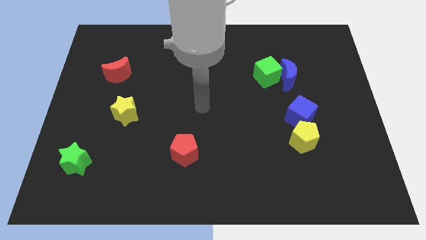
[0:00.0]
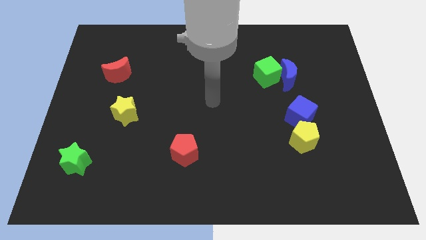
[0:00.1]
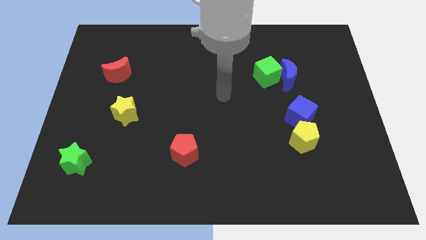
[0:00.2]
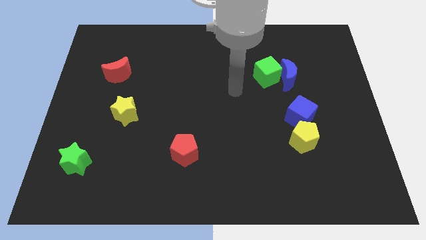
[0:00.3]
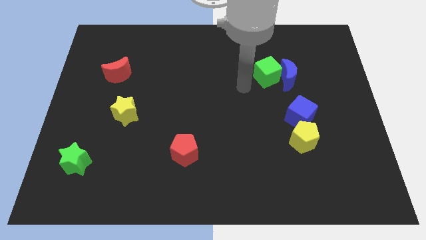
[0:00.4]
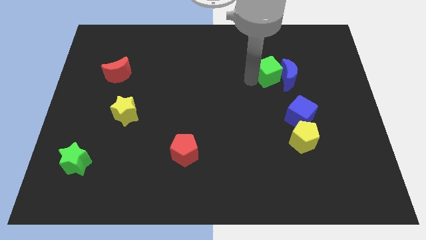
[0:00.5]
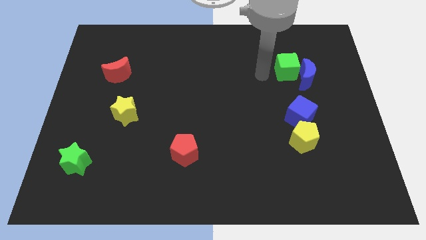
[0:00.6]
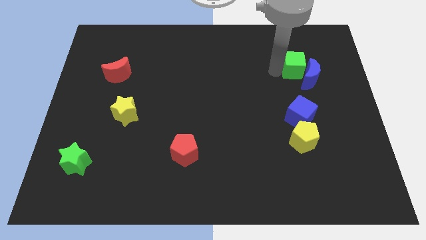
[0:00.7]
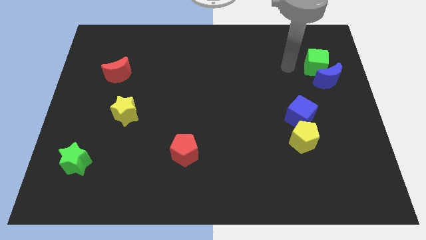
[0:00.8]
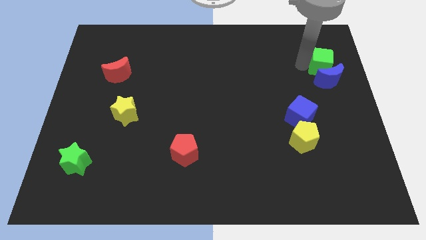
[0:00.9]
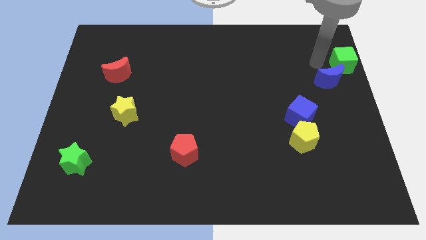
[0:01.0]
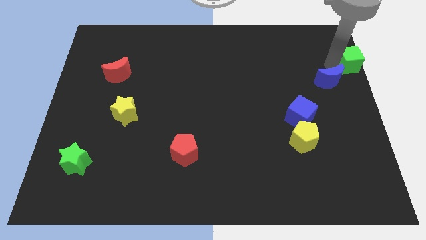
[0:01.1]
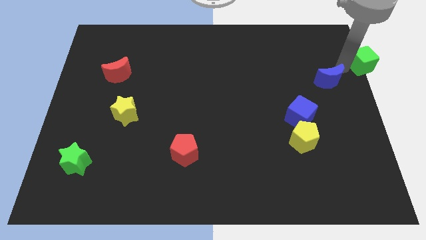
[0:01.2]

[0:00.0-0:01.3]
separate the blue moon from the green cube

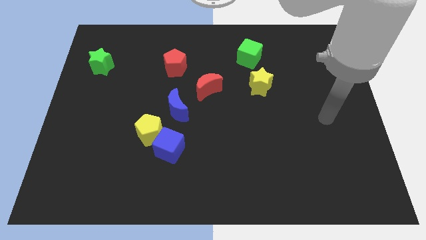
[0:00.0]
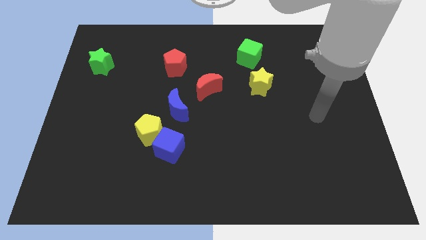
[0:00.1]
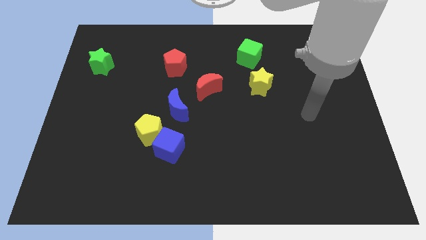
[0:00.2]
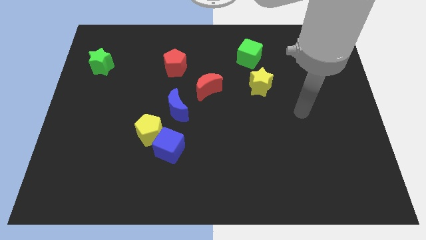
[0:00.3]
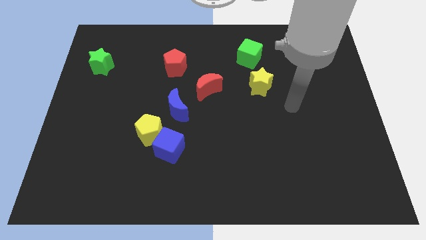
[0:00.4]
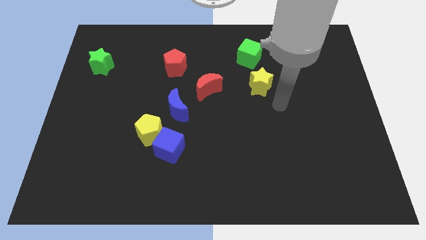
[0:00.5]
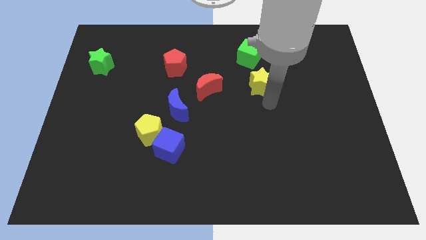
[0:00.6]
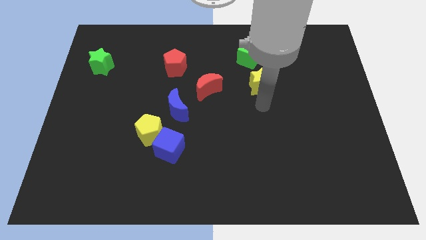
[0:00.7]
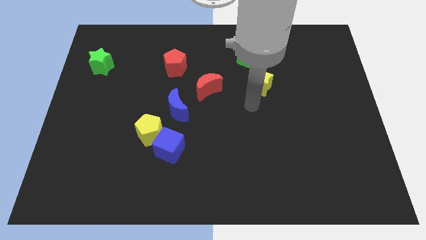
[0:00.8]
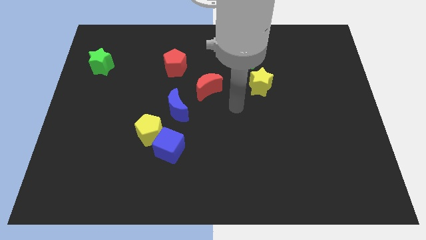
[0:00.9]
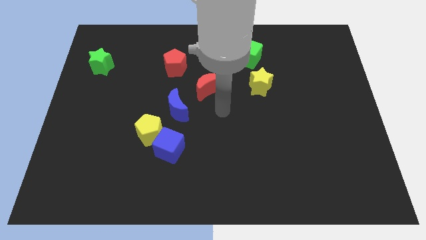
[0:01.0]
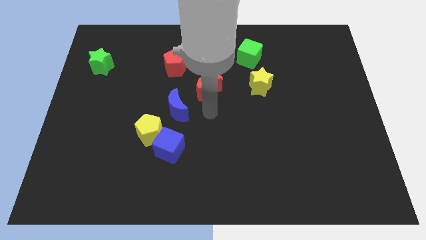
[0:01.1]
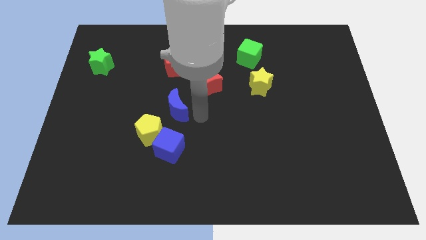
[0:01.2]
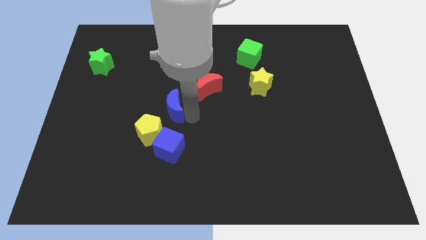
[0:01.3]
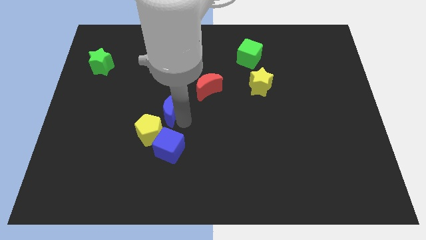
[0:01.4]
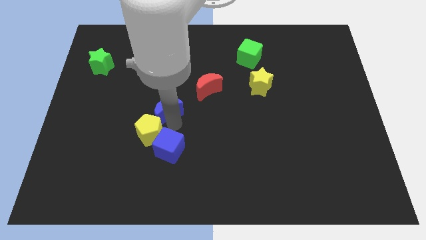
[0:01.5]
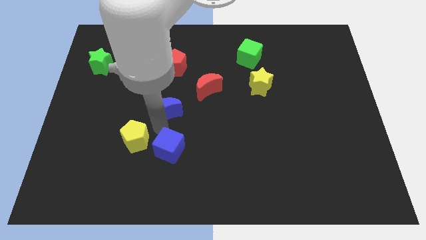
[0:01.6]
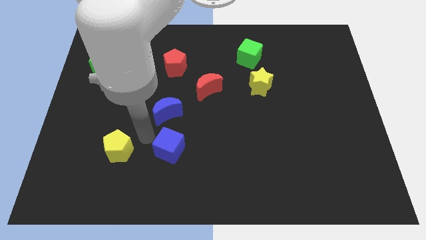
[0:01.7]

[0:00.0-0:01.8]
move the blue cube away from the yellow pentagon

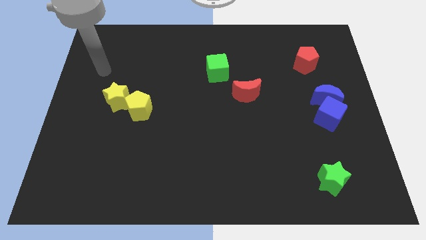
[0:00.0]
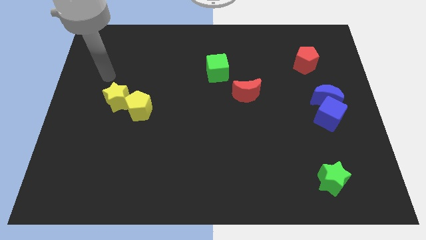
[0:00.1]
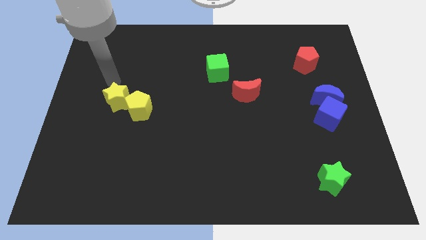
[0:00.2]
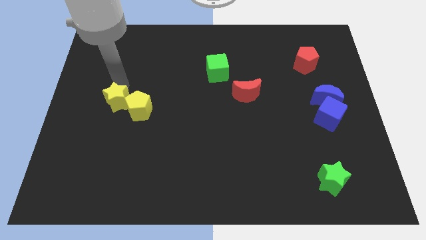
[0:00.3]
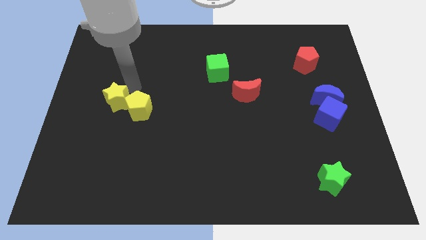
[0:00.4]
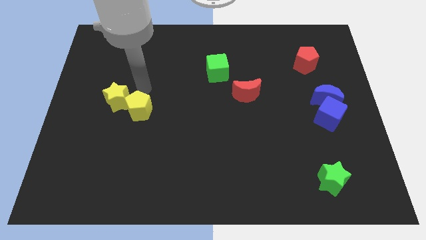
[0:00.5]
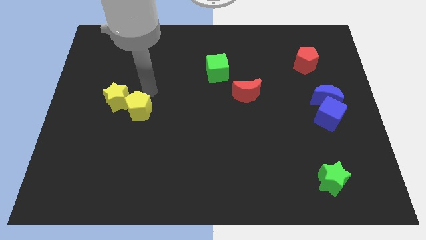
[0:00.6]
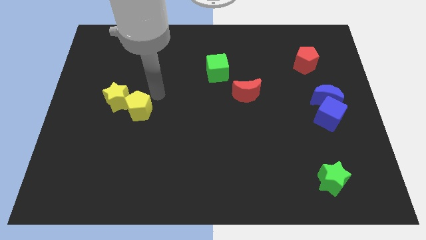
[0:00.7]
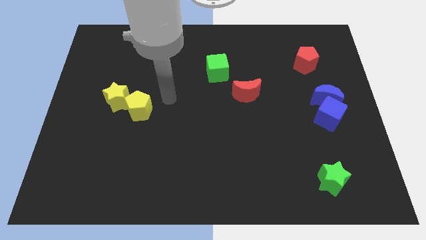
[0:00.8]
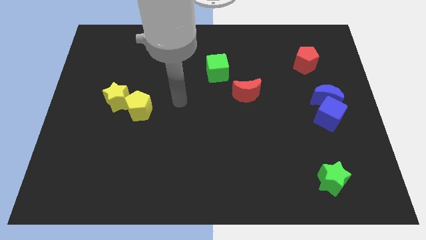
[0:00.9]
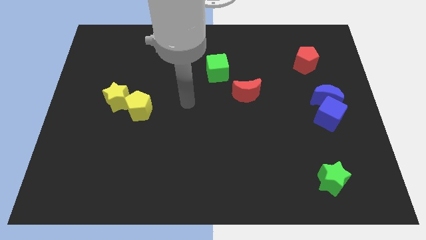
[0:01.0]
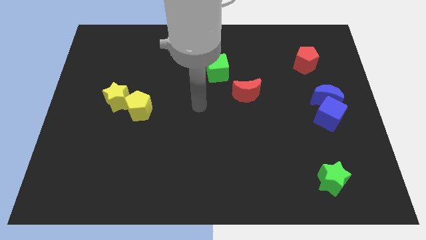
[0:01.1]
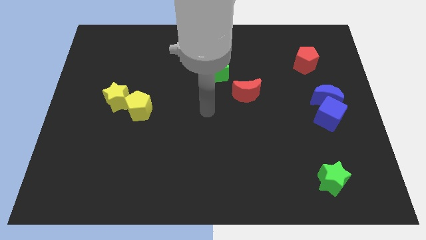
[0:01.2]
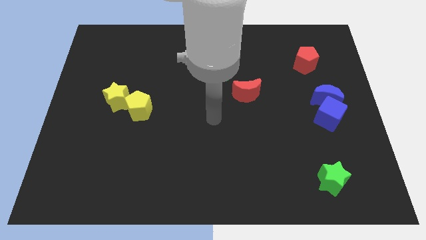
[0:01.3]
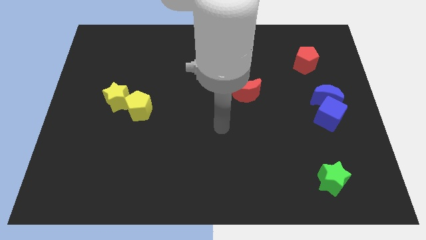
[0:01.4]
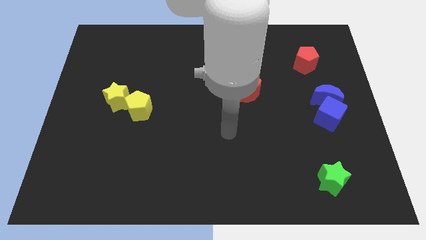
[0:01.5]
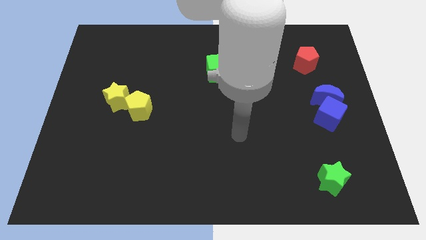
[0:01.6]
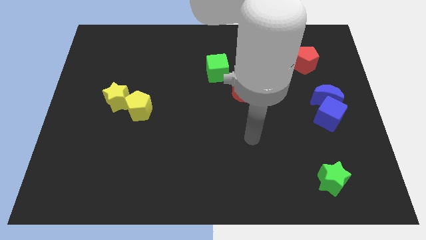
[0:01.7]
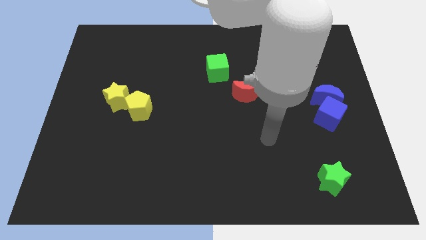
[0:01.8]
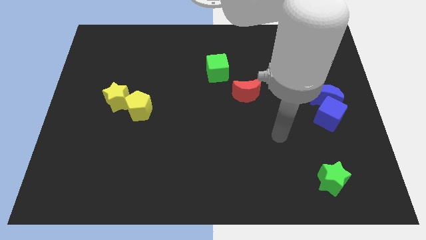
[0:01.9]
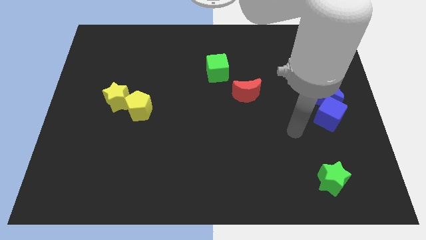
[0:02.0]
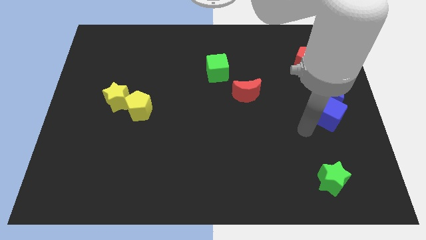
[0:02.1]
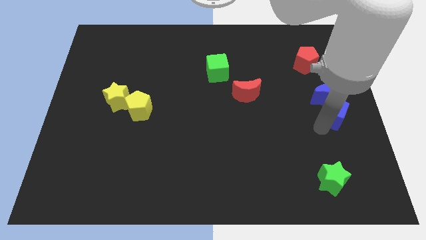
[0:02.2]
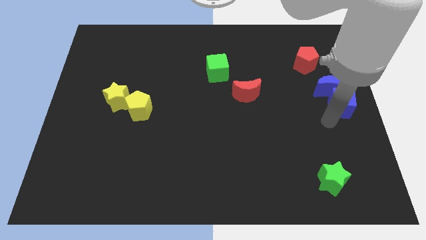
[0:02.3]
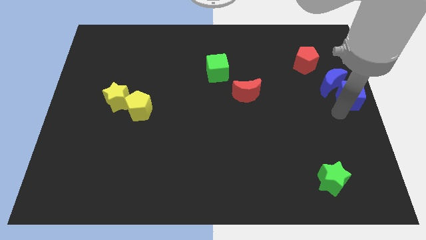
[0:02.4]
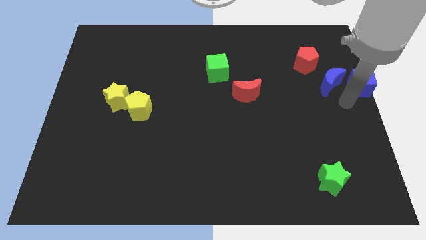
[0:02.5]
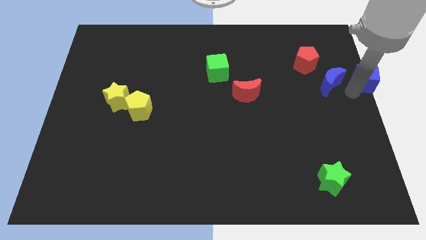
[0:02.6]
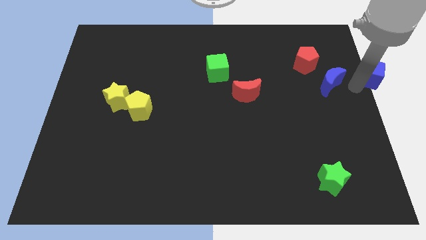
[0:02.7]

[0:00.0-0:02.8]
move the blue moon away from the blue cube

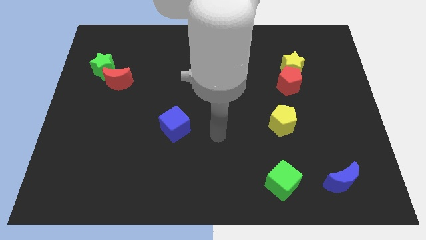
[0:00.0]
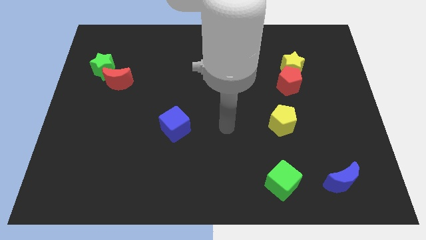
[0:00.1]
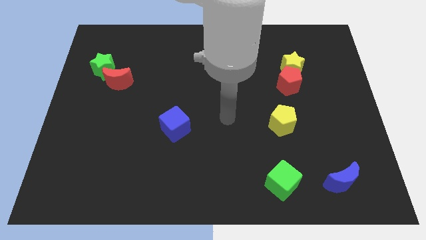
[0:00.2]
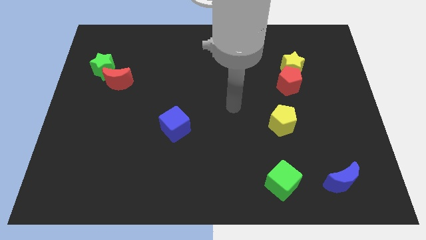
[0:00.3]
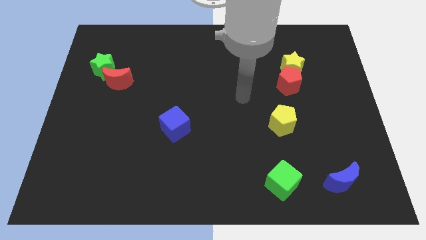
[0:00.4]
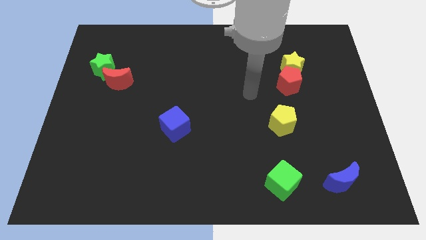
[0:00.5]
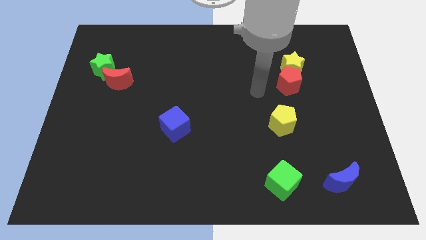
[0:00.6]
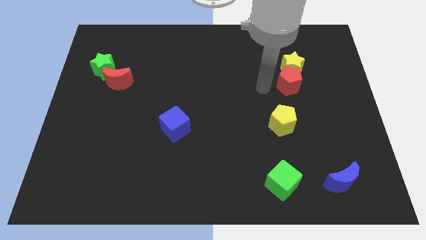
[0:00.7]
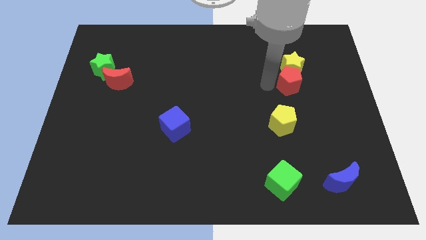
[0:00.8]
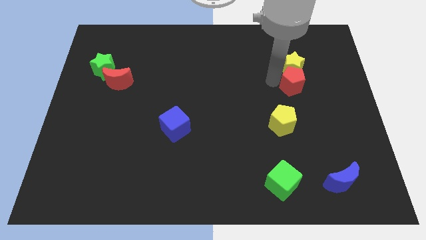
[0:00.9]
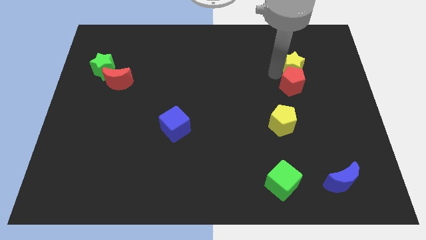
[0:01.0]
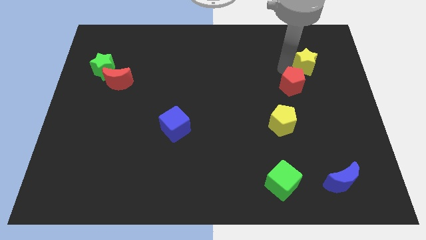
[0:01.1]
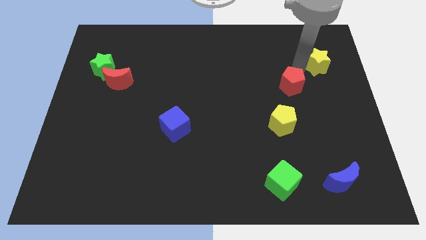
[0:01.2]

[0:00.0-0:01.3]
move the red pentagon away from the yellow star

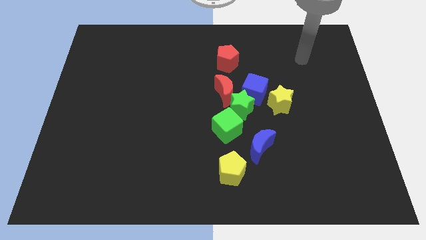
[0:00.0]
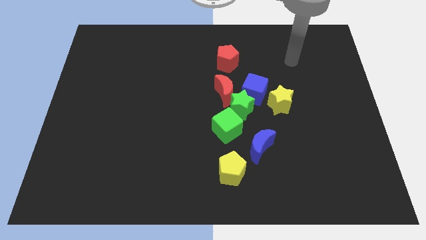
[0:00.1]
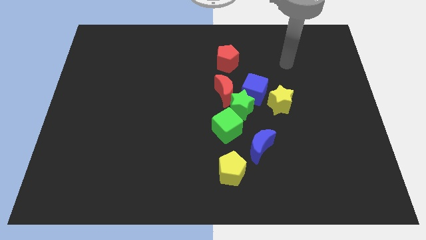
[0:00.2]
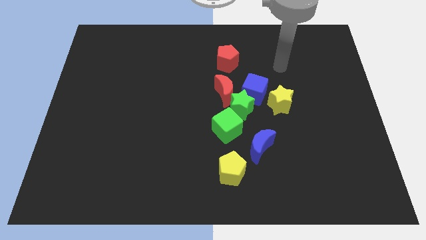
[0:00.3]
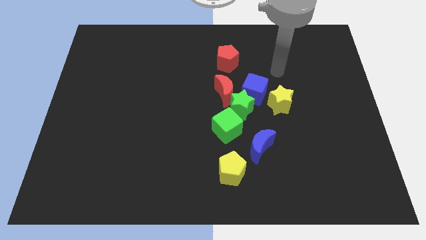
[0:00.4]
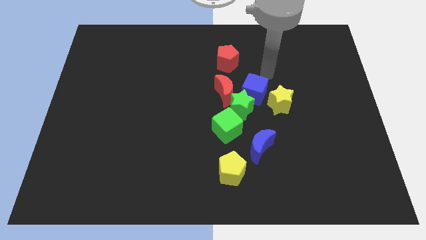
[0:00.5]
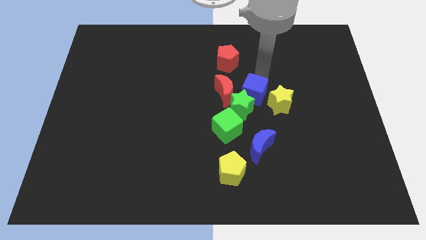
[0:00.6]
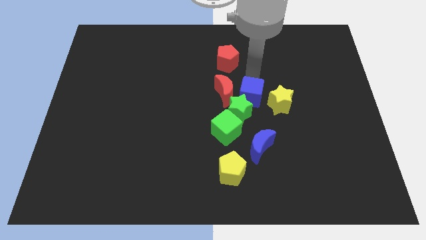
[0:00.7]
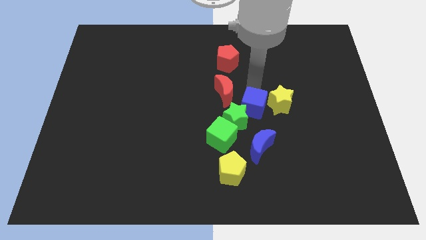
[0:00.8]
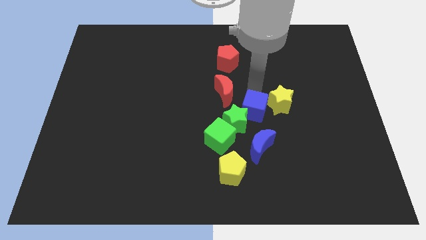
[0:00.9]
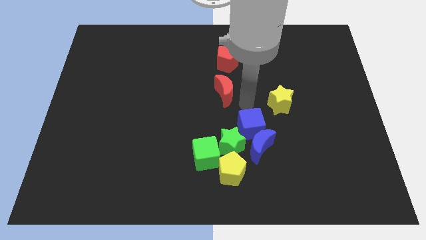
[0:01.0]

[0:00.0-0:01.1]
pull the red moon apart from the green star and blue cube

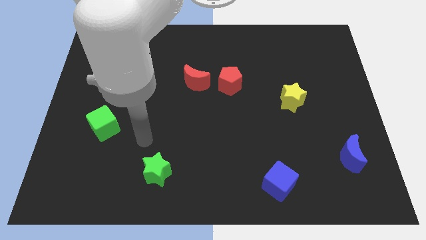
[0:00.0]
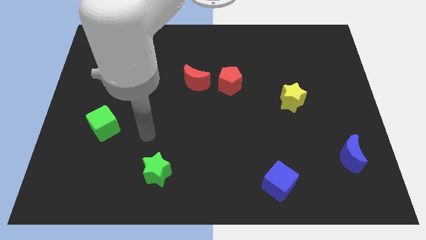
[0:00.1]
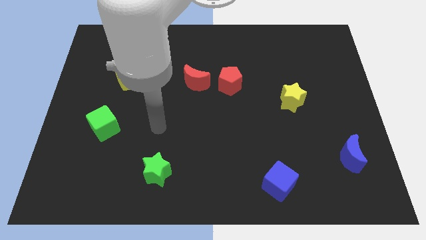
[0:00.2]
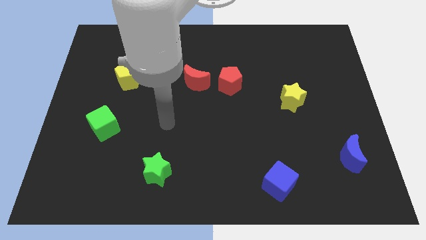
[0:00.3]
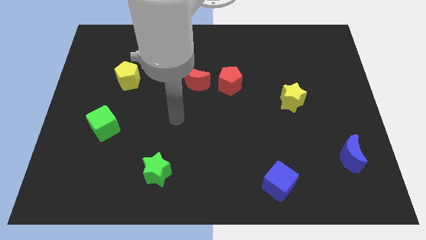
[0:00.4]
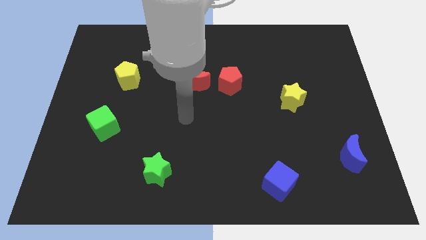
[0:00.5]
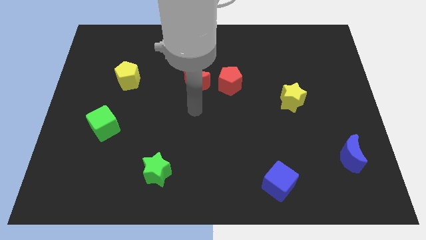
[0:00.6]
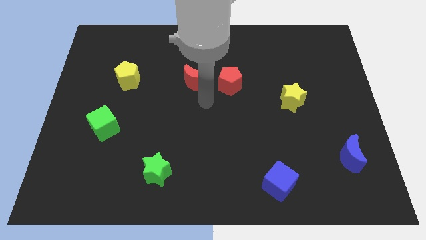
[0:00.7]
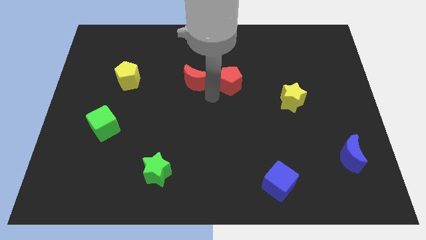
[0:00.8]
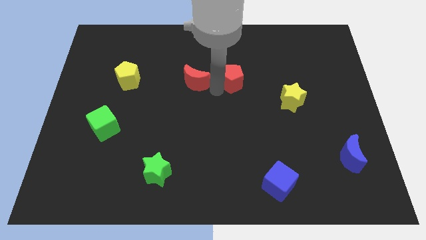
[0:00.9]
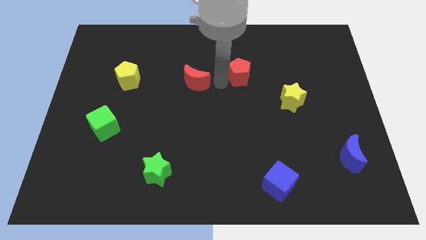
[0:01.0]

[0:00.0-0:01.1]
move the red moon away from the red pentagon
